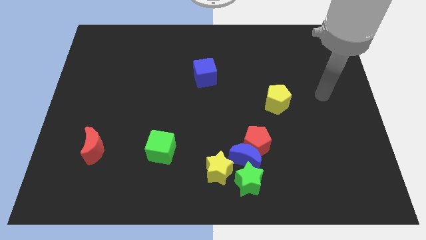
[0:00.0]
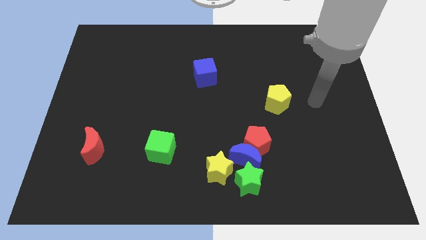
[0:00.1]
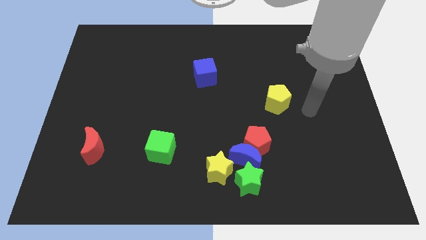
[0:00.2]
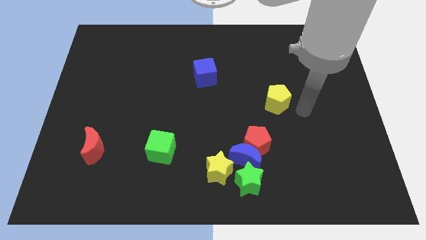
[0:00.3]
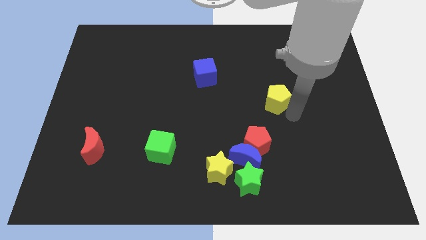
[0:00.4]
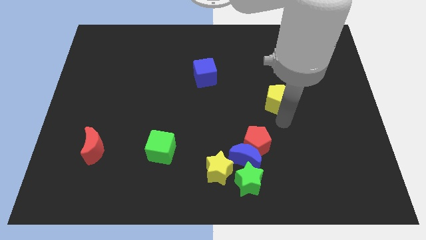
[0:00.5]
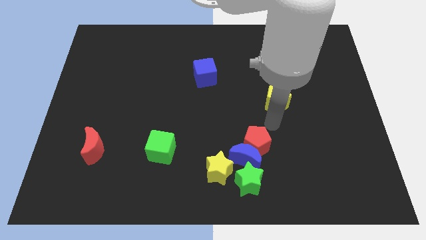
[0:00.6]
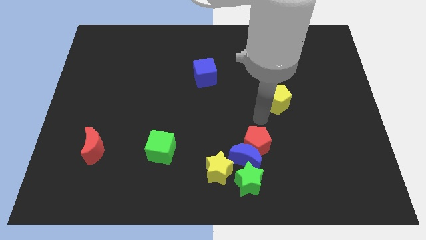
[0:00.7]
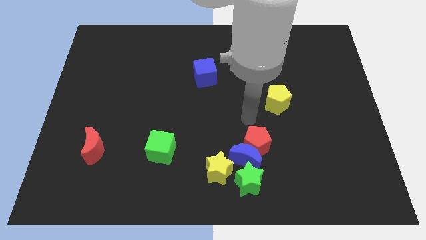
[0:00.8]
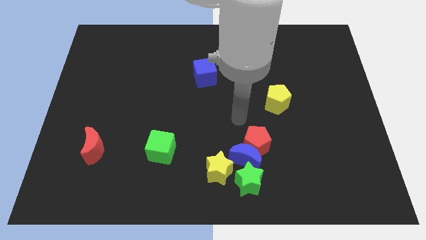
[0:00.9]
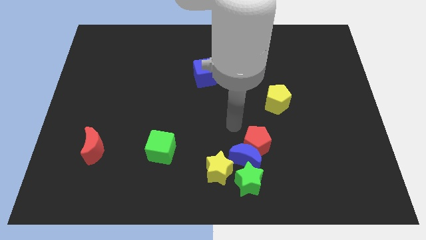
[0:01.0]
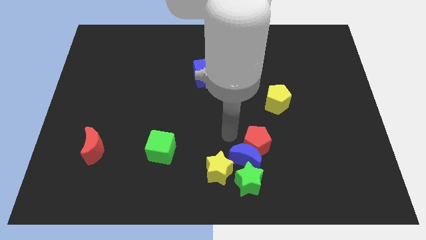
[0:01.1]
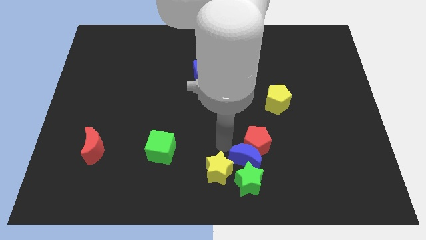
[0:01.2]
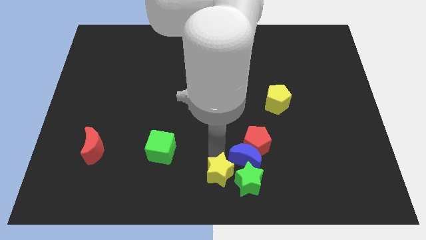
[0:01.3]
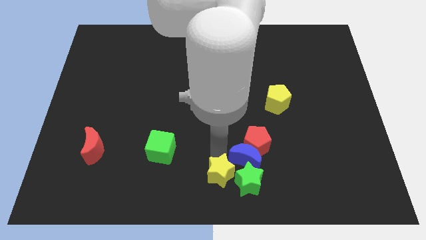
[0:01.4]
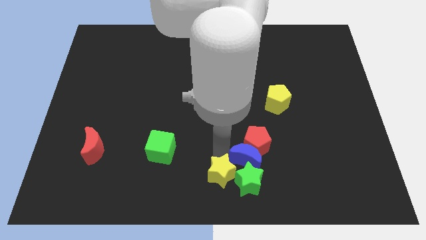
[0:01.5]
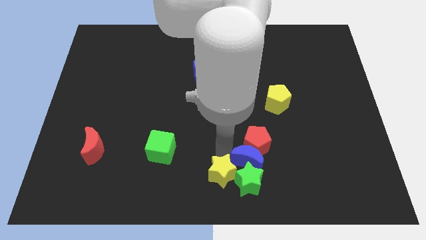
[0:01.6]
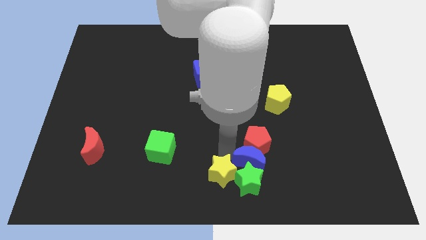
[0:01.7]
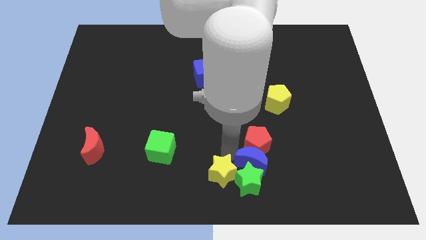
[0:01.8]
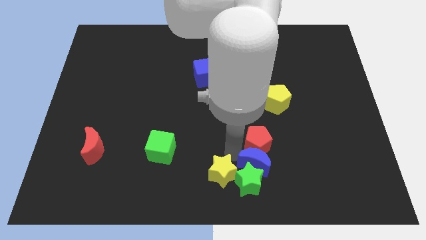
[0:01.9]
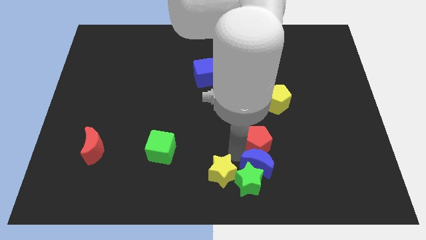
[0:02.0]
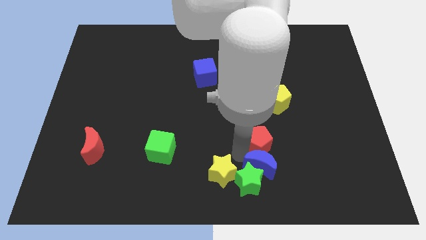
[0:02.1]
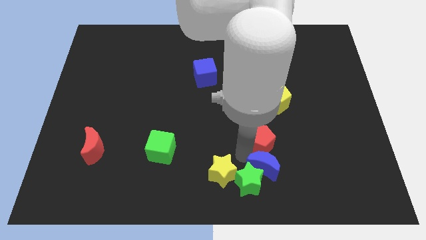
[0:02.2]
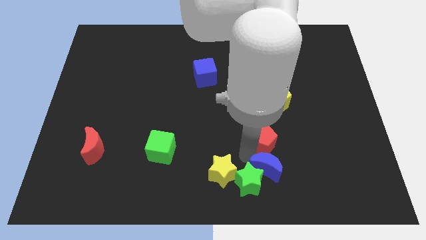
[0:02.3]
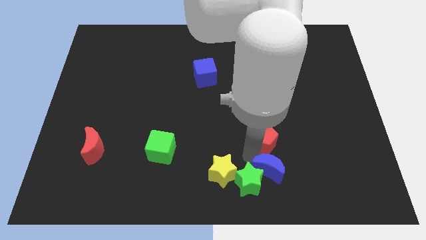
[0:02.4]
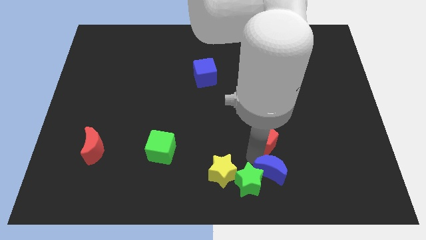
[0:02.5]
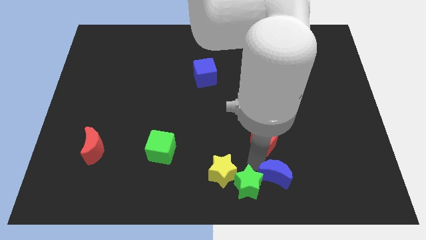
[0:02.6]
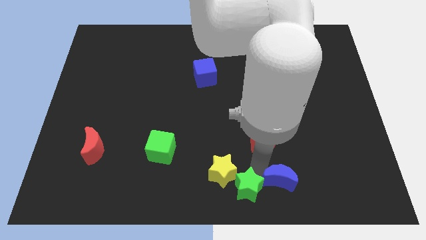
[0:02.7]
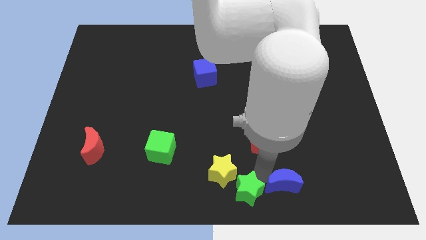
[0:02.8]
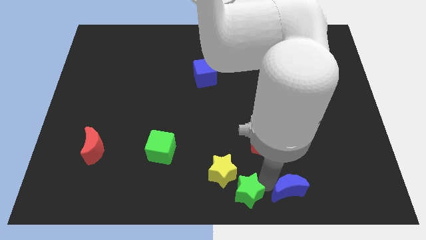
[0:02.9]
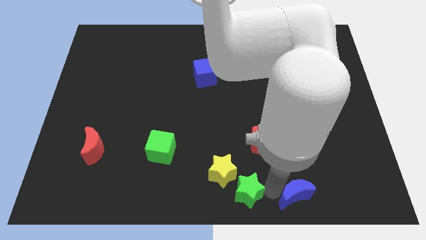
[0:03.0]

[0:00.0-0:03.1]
move the blue moon away from the clump

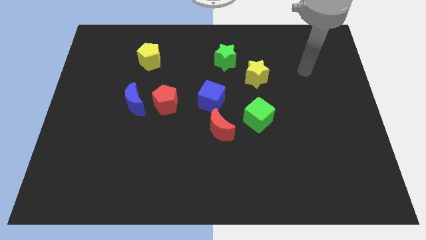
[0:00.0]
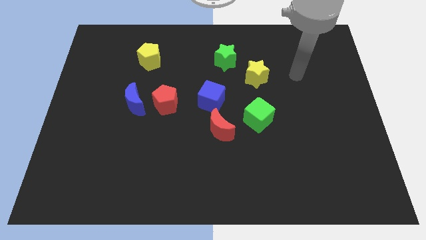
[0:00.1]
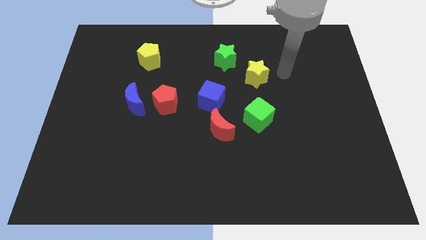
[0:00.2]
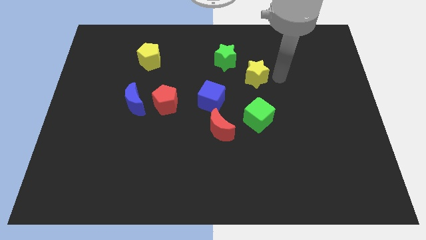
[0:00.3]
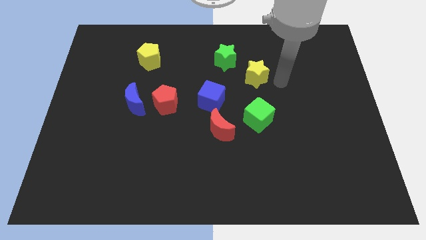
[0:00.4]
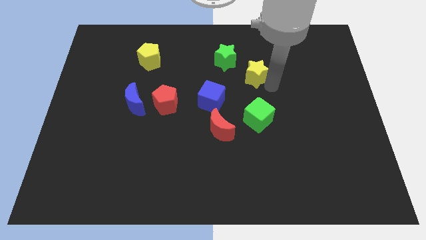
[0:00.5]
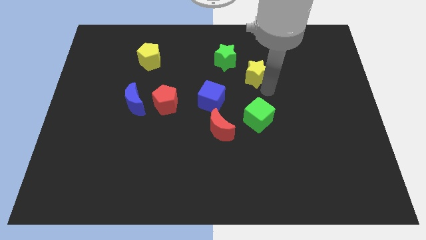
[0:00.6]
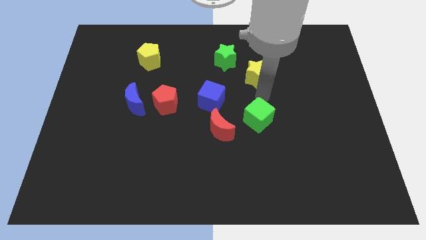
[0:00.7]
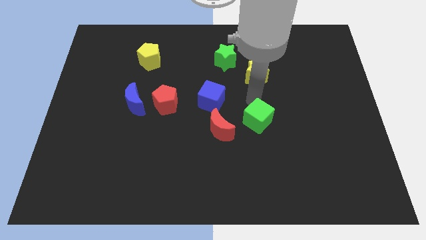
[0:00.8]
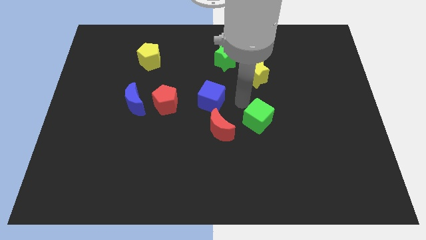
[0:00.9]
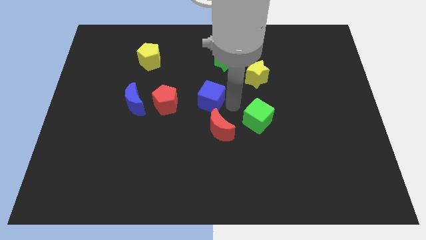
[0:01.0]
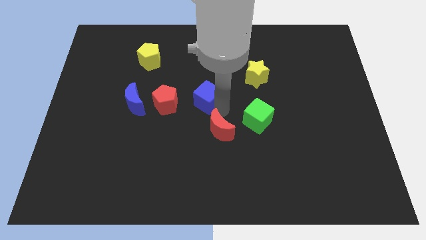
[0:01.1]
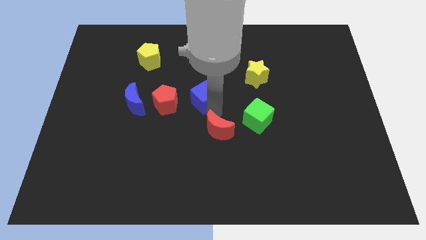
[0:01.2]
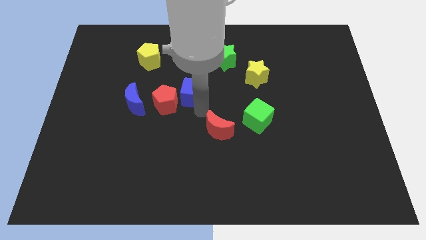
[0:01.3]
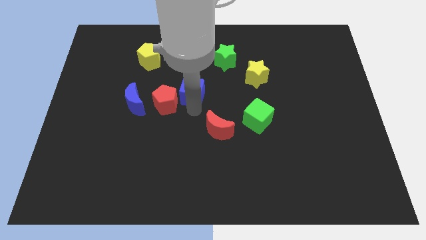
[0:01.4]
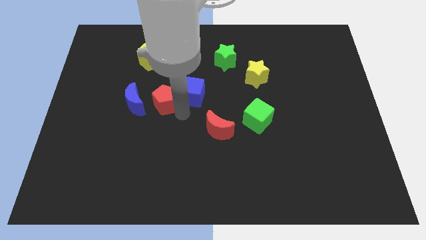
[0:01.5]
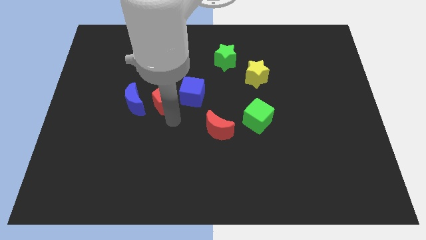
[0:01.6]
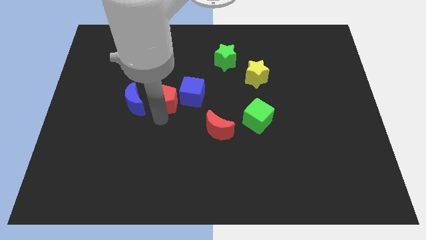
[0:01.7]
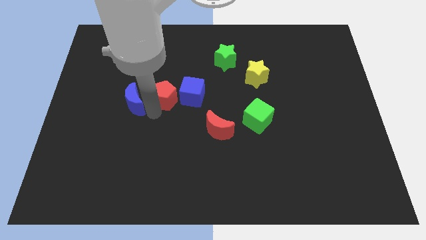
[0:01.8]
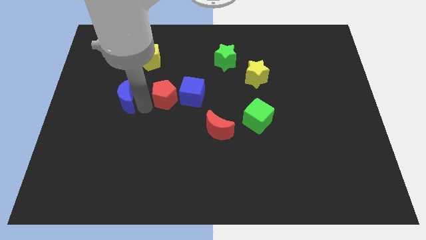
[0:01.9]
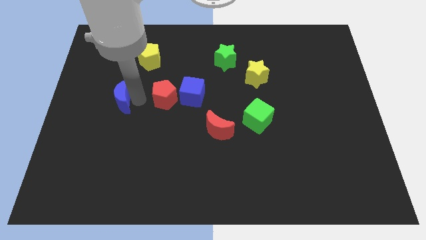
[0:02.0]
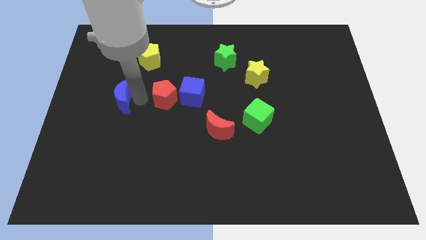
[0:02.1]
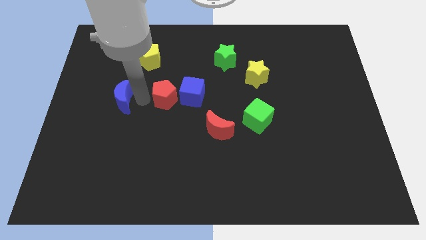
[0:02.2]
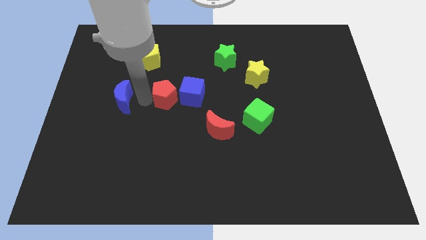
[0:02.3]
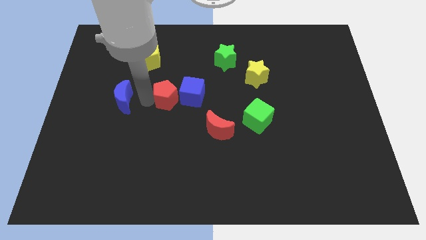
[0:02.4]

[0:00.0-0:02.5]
pull the red pentagon apart from the blue moon

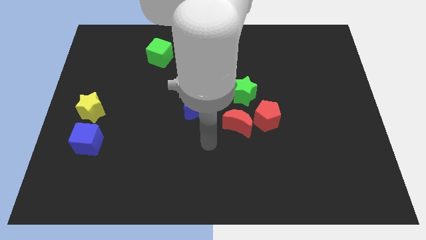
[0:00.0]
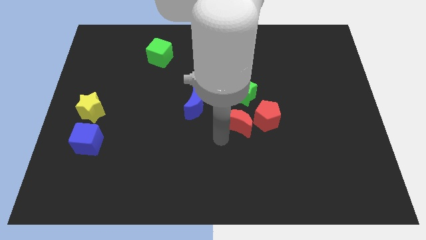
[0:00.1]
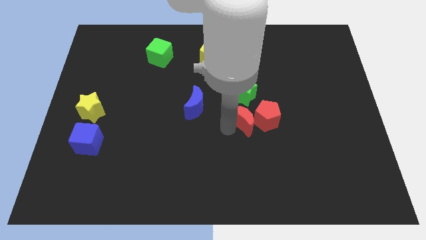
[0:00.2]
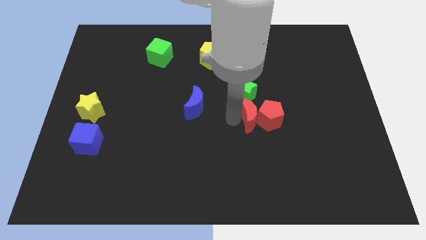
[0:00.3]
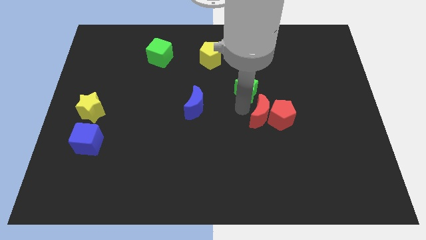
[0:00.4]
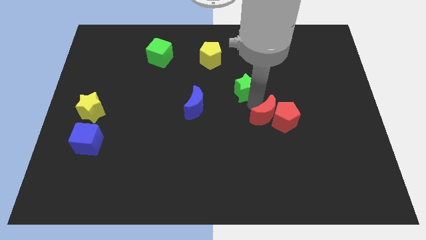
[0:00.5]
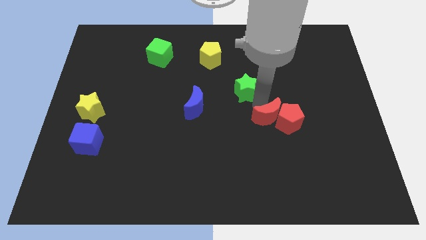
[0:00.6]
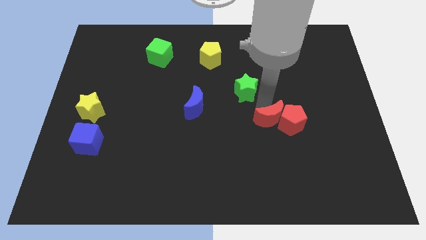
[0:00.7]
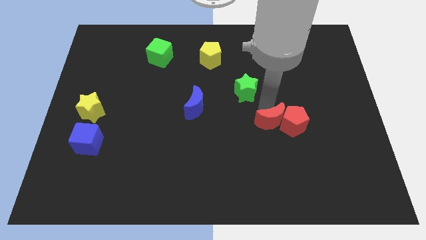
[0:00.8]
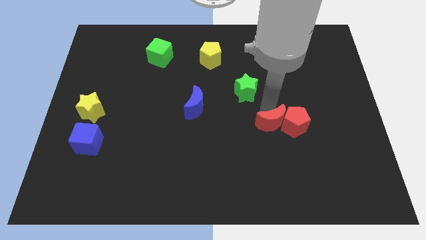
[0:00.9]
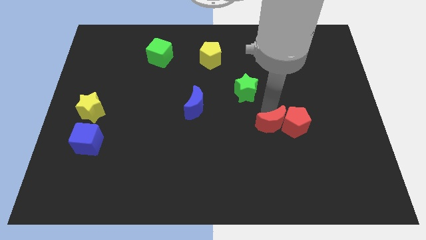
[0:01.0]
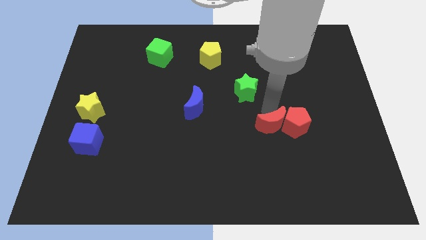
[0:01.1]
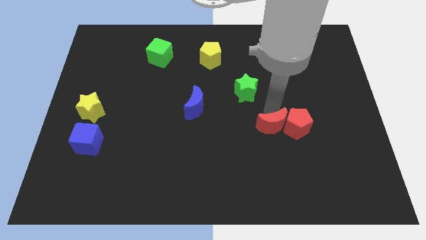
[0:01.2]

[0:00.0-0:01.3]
pull the red pentagon apart from the red moon and green star

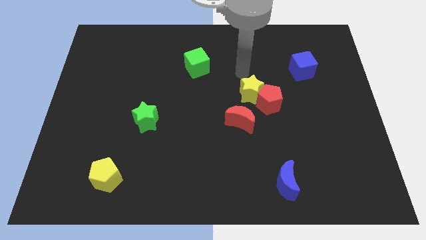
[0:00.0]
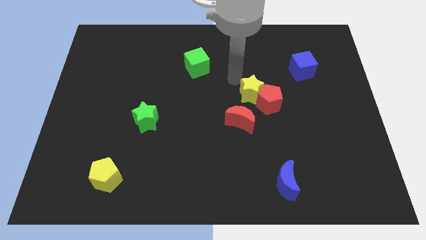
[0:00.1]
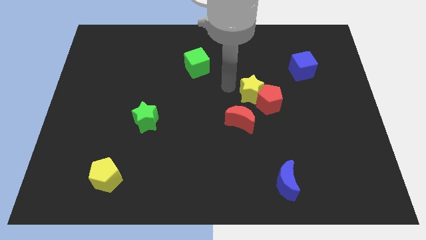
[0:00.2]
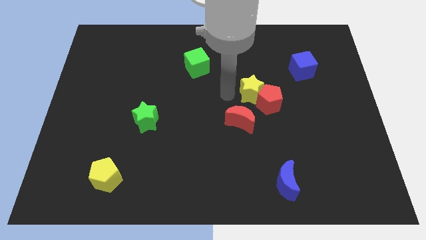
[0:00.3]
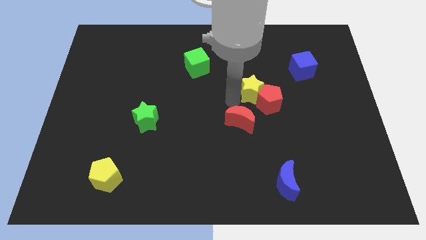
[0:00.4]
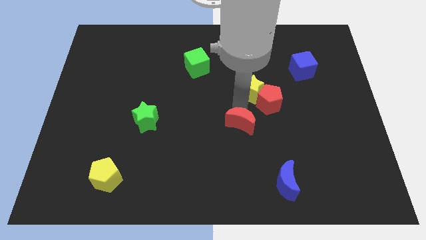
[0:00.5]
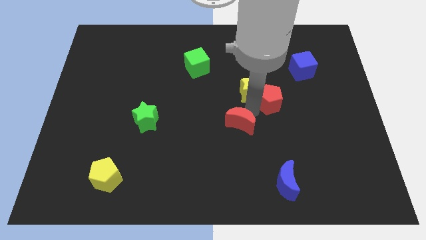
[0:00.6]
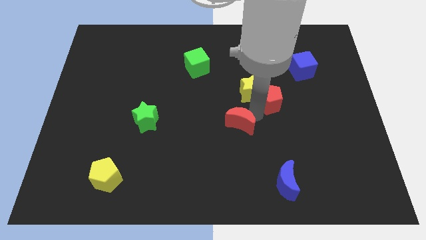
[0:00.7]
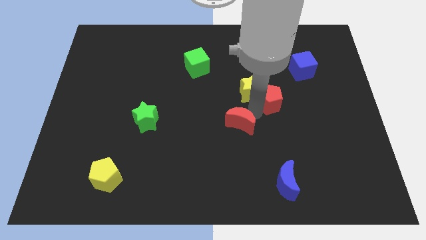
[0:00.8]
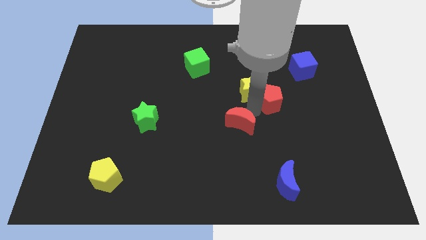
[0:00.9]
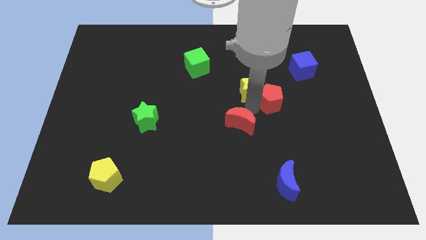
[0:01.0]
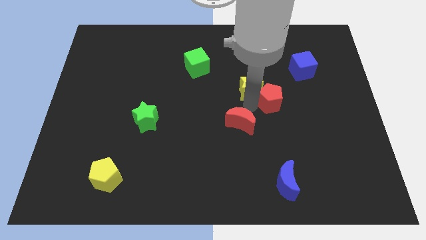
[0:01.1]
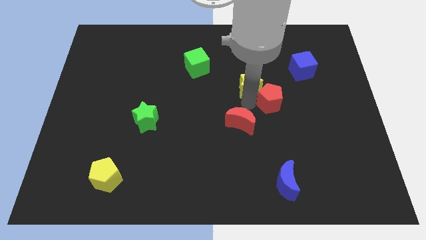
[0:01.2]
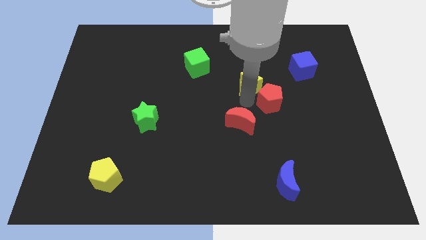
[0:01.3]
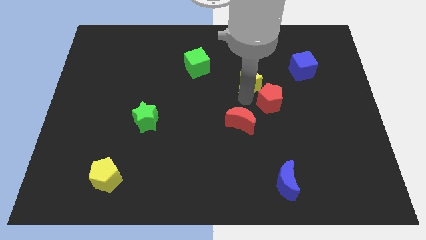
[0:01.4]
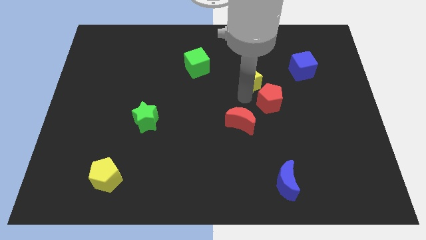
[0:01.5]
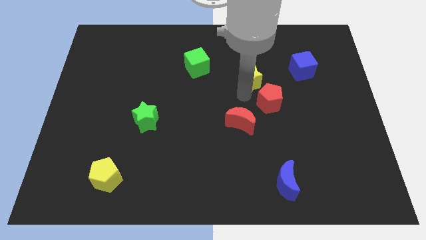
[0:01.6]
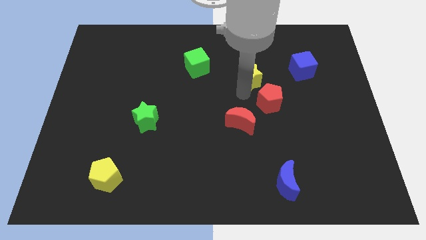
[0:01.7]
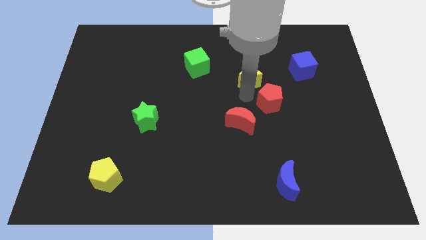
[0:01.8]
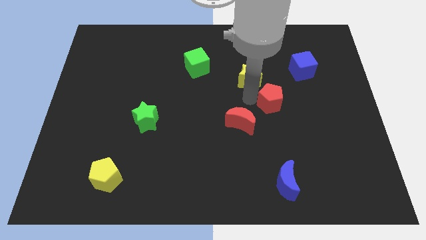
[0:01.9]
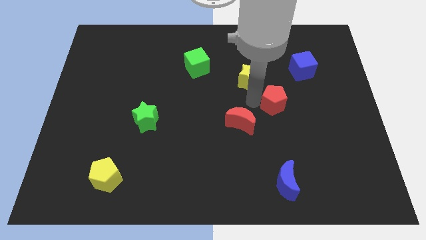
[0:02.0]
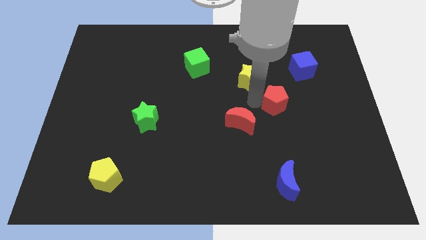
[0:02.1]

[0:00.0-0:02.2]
pull the yellow star apart from the red pentagon and red moon

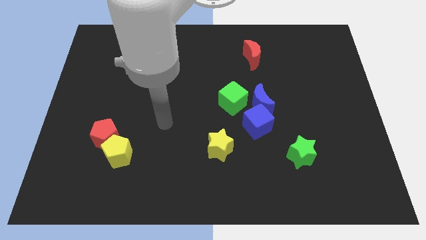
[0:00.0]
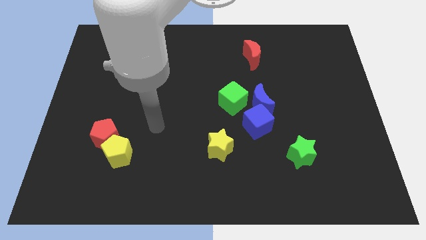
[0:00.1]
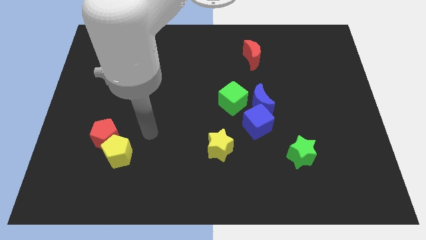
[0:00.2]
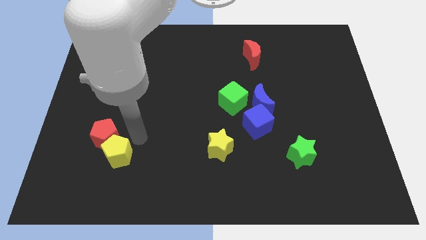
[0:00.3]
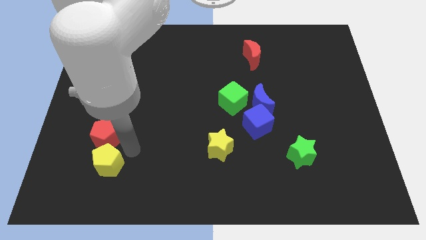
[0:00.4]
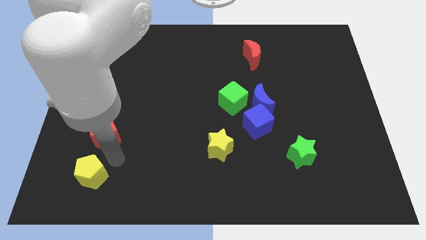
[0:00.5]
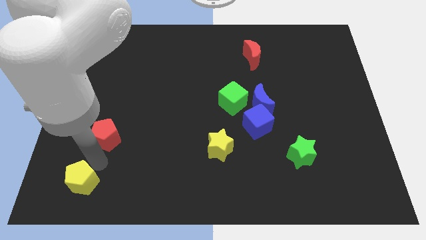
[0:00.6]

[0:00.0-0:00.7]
pull the red pentagon apart from the yellow pentagon
